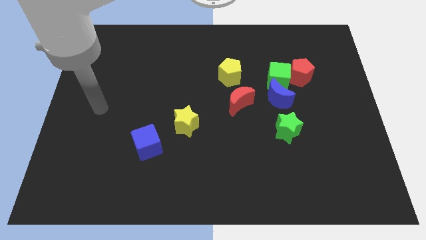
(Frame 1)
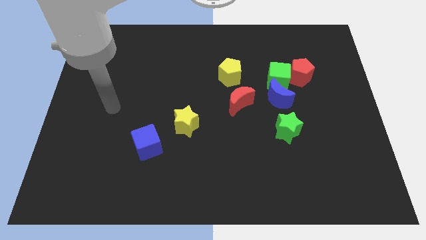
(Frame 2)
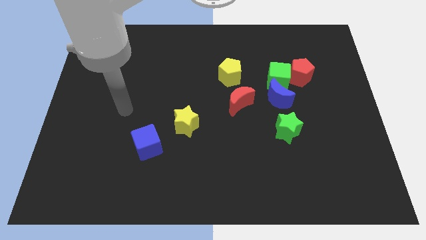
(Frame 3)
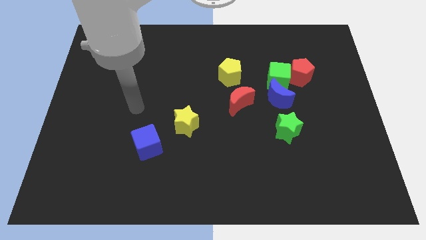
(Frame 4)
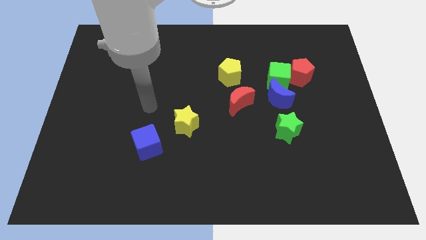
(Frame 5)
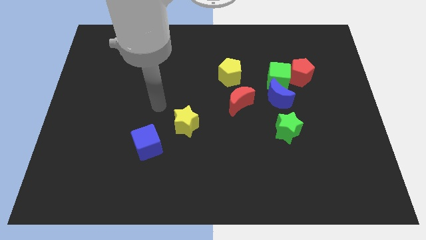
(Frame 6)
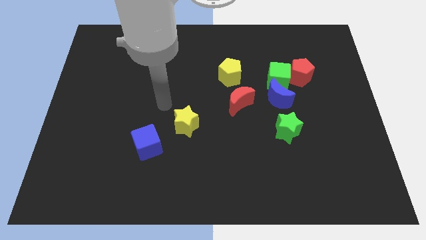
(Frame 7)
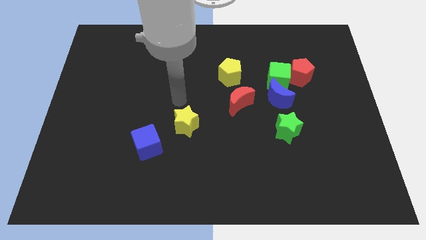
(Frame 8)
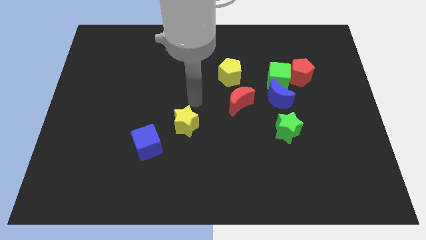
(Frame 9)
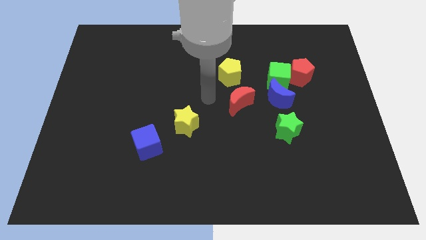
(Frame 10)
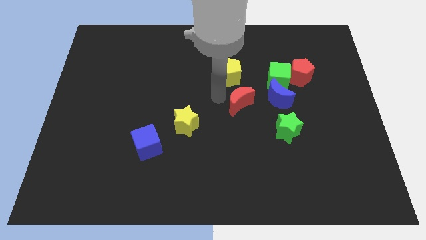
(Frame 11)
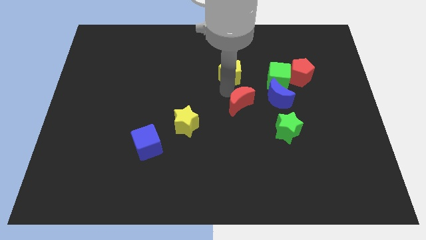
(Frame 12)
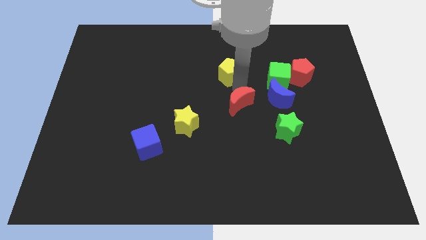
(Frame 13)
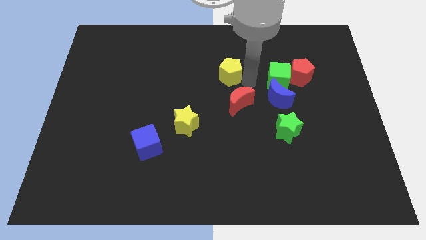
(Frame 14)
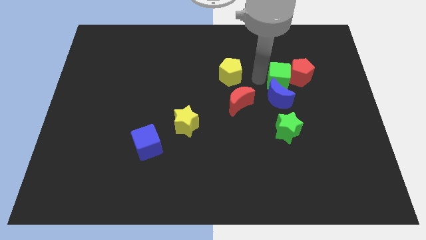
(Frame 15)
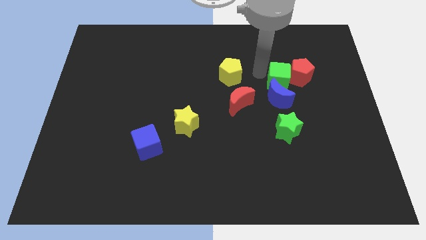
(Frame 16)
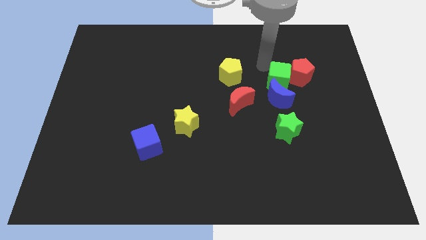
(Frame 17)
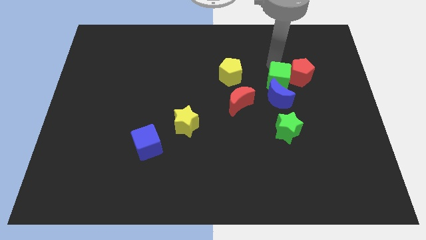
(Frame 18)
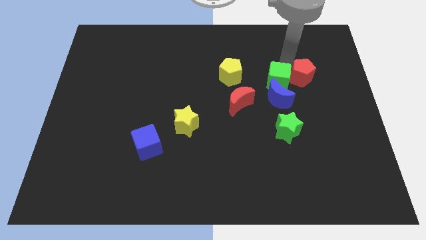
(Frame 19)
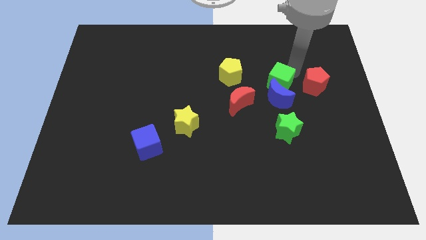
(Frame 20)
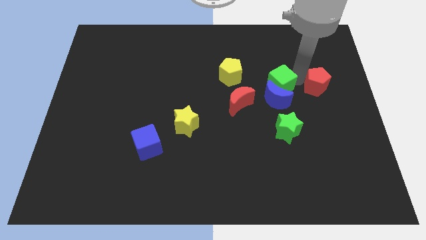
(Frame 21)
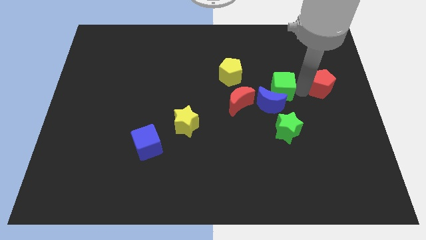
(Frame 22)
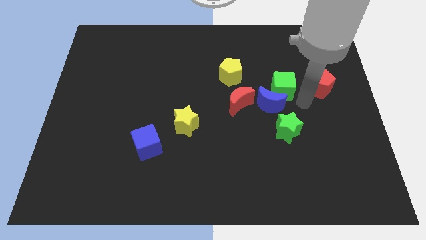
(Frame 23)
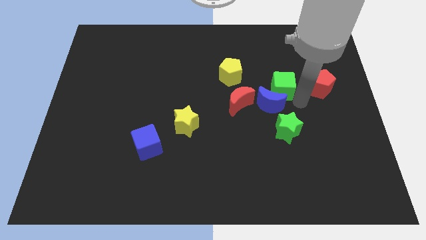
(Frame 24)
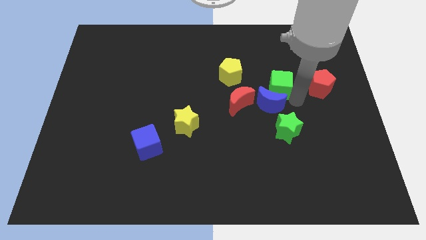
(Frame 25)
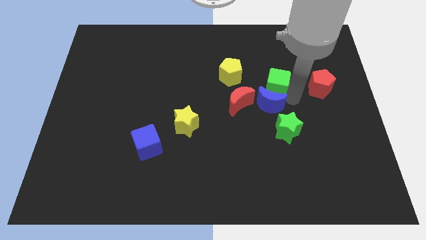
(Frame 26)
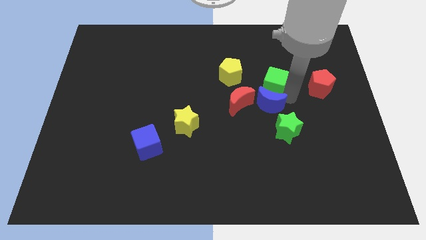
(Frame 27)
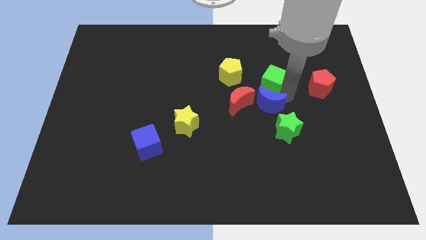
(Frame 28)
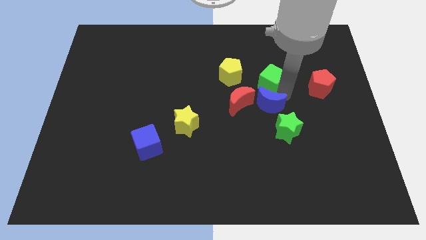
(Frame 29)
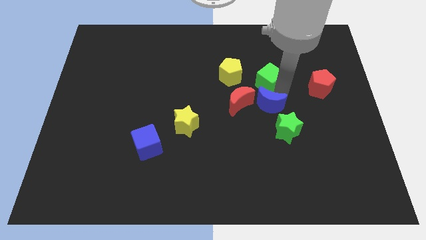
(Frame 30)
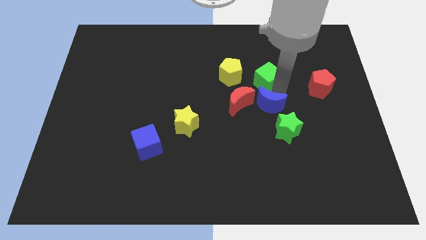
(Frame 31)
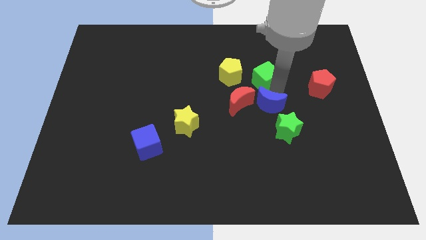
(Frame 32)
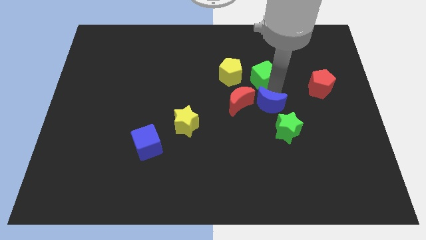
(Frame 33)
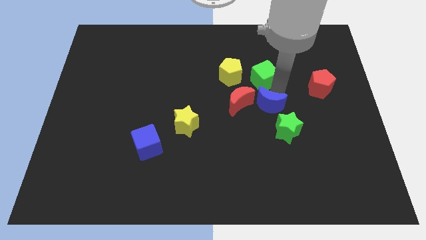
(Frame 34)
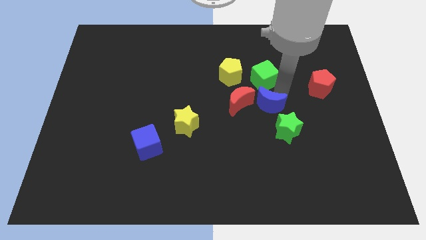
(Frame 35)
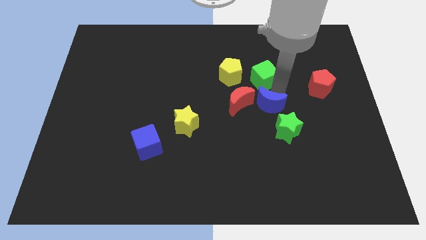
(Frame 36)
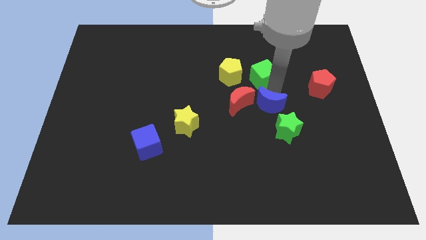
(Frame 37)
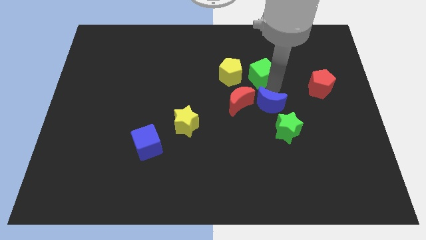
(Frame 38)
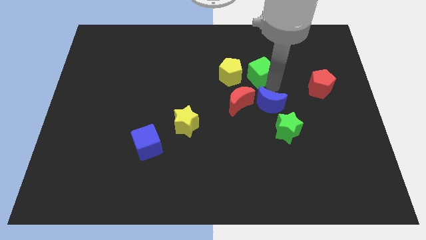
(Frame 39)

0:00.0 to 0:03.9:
separate the green cube from the red pentagon and blue moon

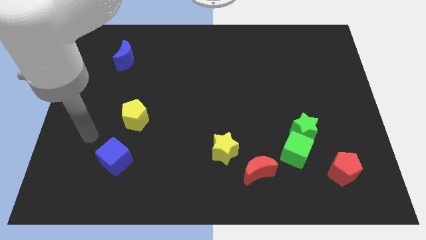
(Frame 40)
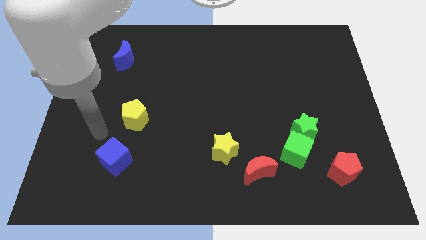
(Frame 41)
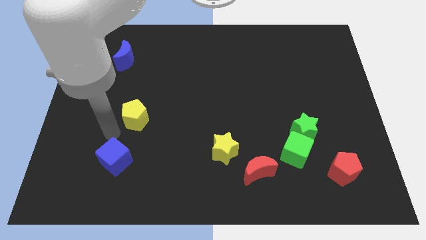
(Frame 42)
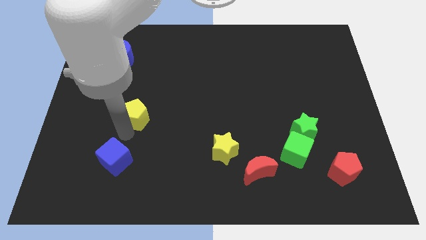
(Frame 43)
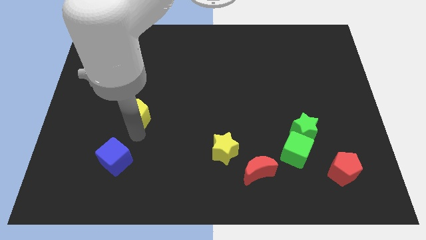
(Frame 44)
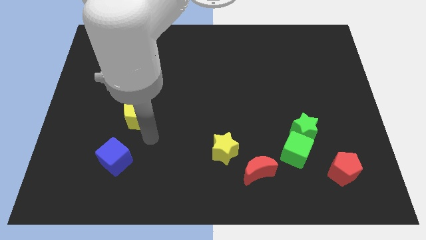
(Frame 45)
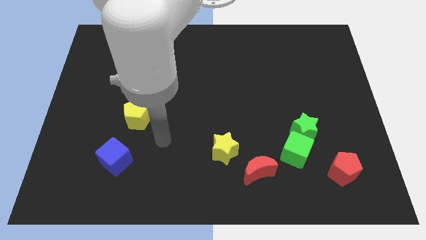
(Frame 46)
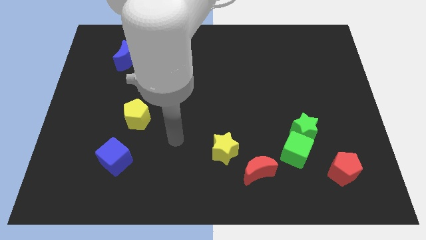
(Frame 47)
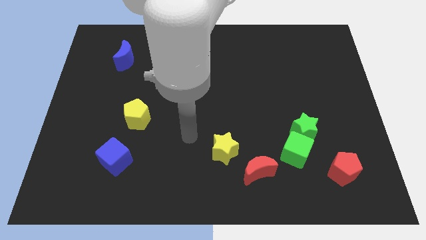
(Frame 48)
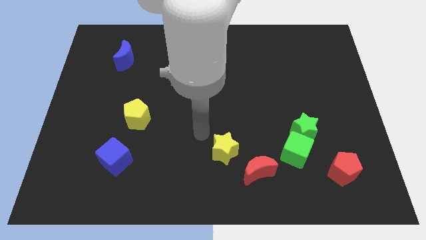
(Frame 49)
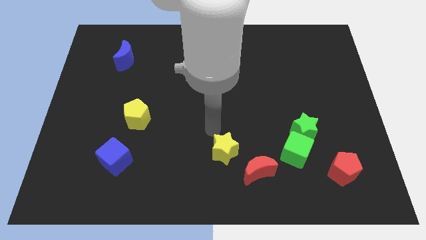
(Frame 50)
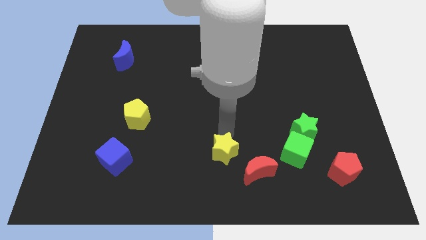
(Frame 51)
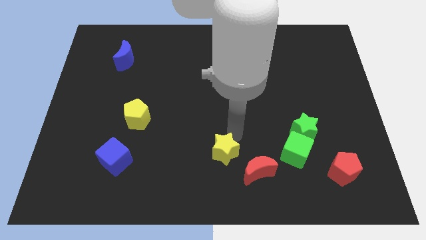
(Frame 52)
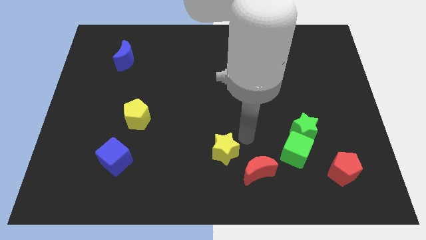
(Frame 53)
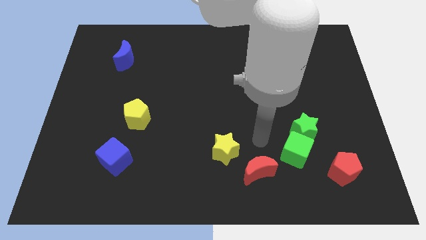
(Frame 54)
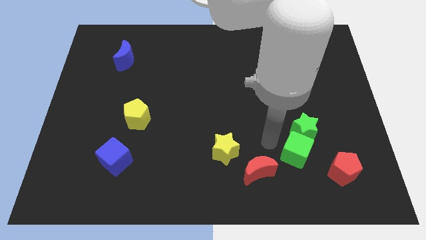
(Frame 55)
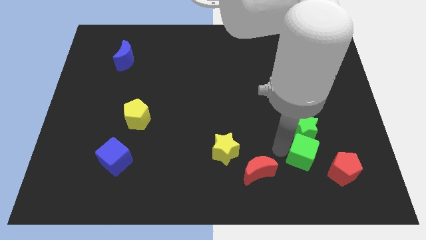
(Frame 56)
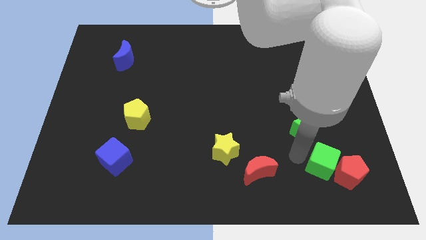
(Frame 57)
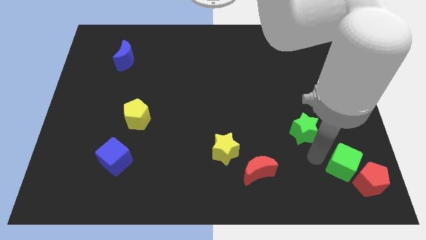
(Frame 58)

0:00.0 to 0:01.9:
move the green star away from the green cube

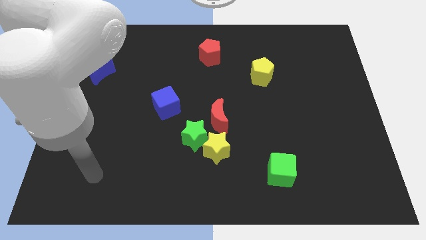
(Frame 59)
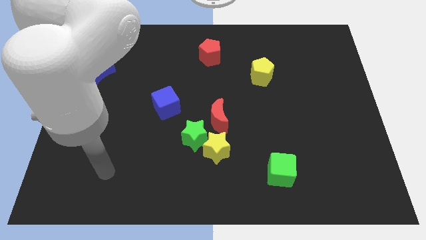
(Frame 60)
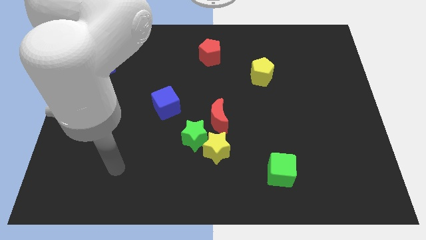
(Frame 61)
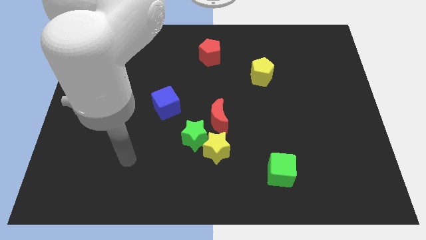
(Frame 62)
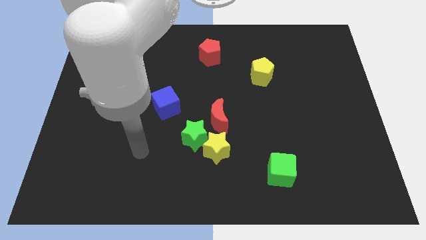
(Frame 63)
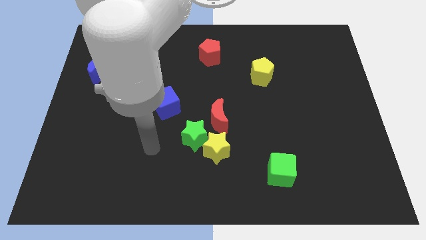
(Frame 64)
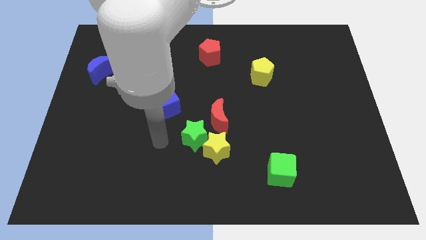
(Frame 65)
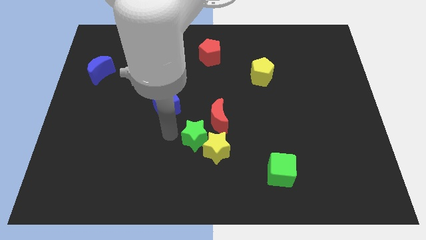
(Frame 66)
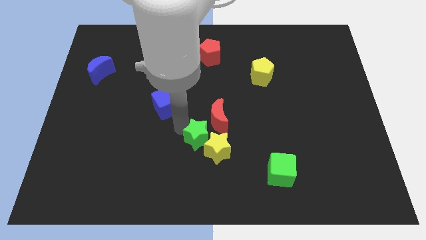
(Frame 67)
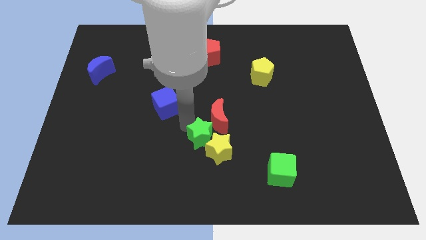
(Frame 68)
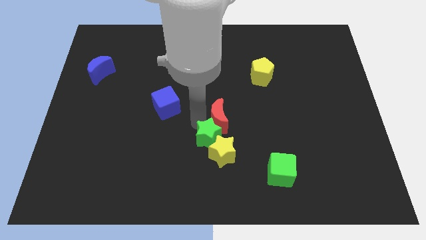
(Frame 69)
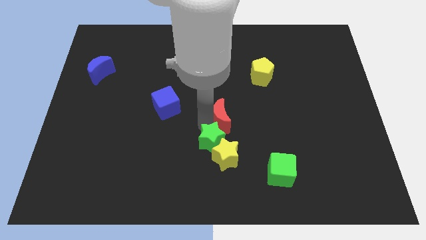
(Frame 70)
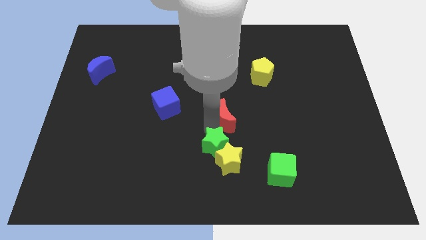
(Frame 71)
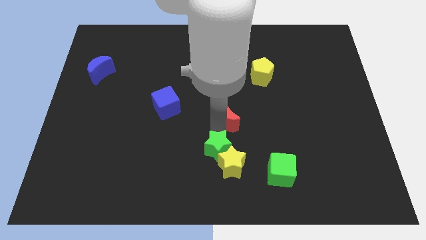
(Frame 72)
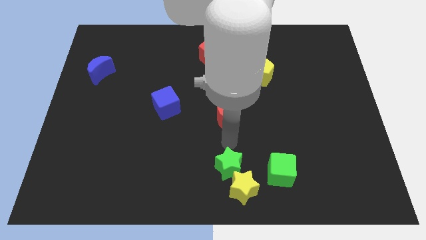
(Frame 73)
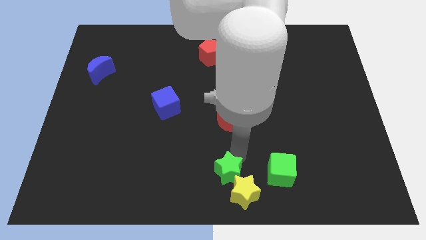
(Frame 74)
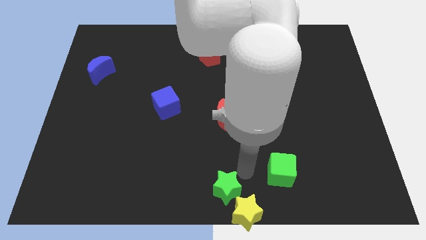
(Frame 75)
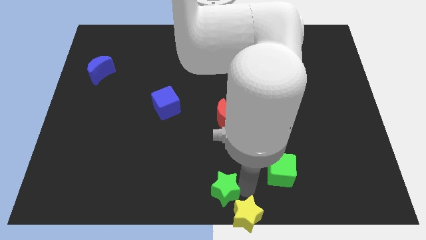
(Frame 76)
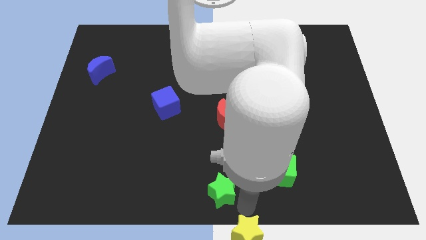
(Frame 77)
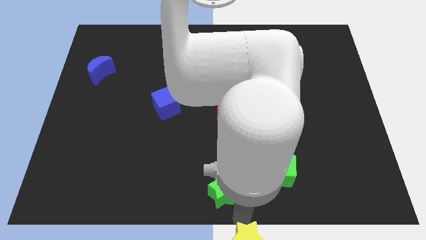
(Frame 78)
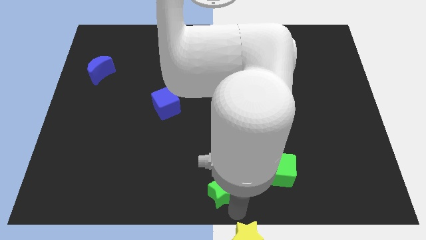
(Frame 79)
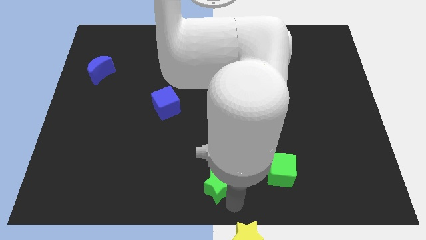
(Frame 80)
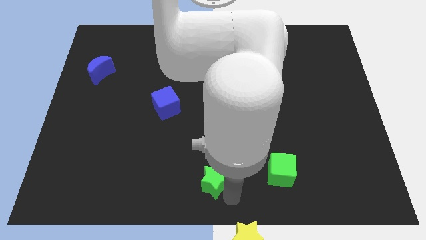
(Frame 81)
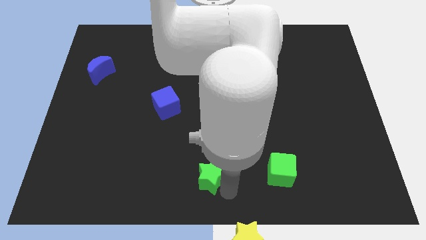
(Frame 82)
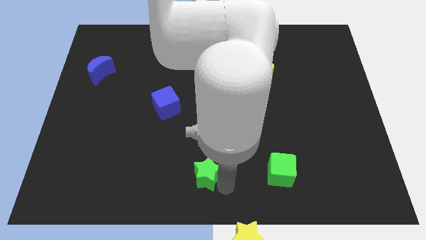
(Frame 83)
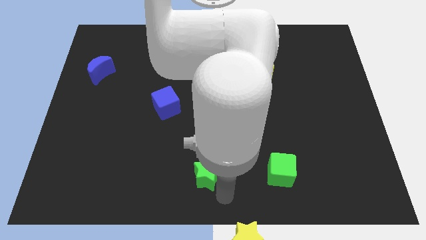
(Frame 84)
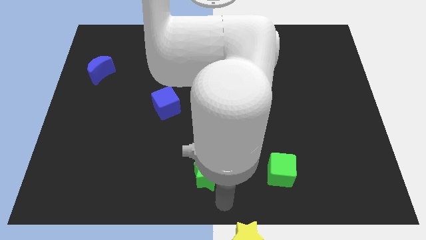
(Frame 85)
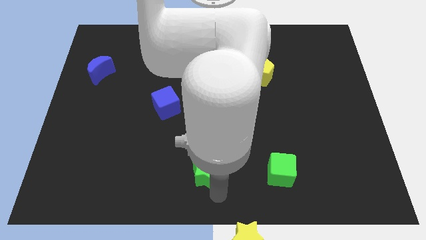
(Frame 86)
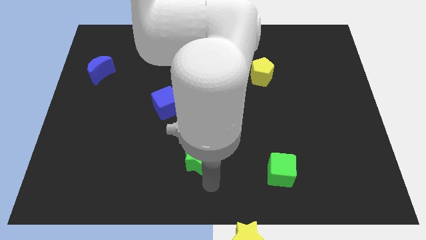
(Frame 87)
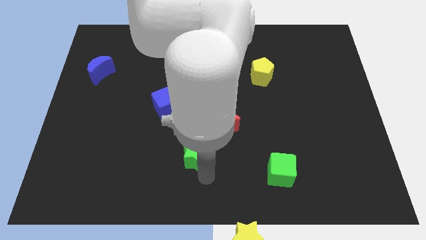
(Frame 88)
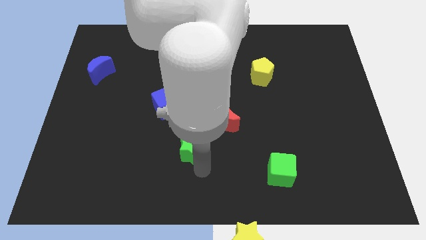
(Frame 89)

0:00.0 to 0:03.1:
pull the green star apart from the yellow star and red moon

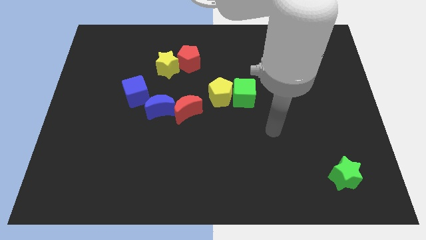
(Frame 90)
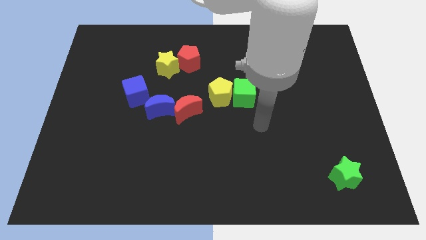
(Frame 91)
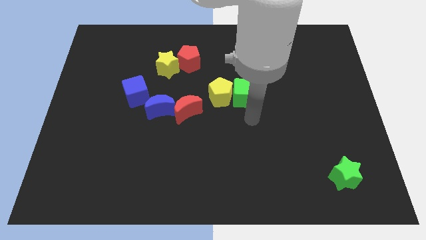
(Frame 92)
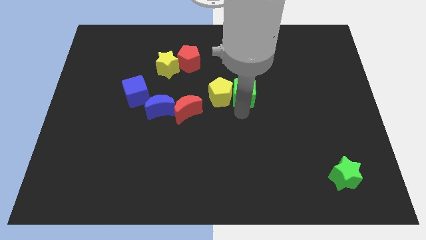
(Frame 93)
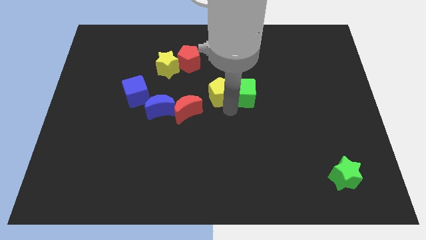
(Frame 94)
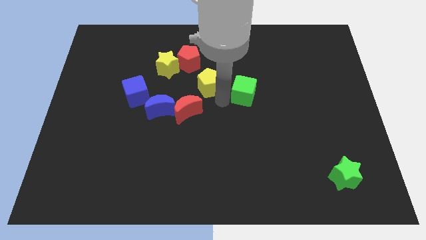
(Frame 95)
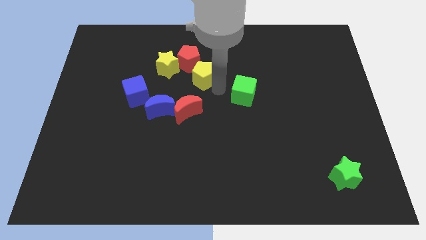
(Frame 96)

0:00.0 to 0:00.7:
pull the green cube apart from the yellow pentagon
